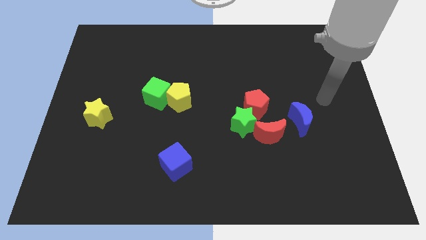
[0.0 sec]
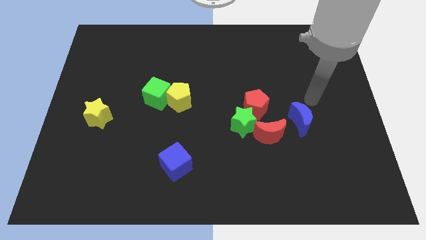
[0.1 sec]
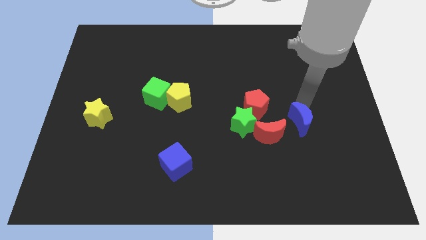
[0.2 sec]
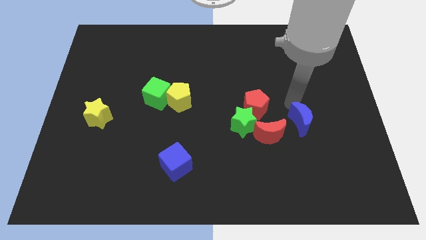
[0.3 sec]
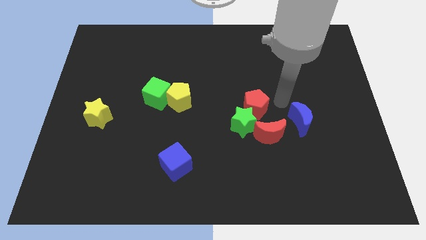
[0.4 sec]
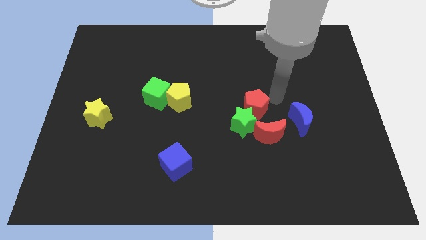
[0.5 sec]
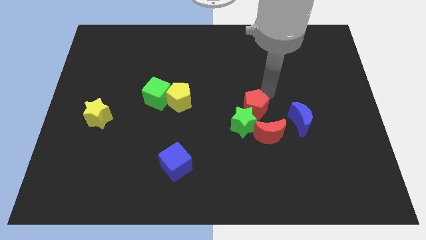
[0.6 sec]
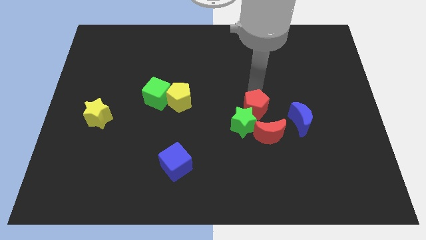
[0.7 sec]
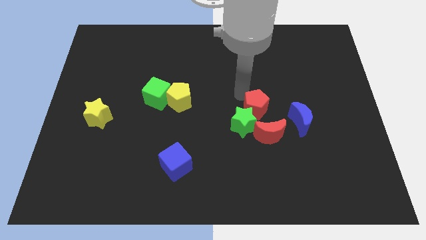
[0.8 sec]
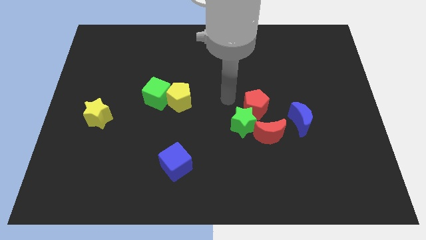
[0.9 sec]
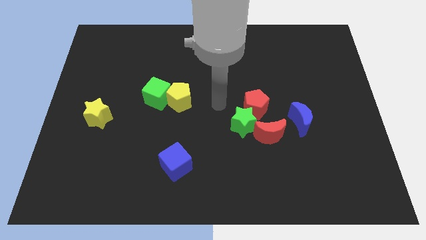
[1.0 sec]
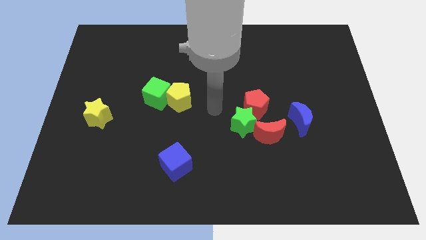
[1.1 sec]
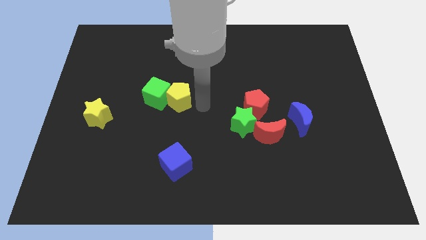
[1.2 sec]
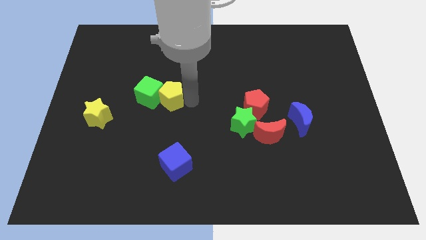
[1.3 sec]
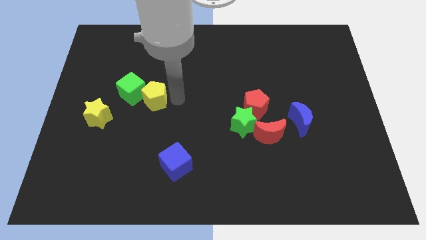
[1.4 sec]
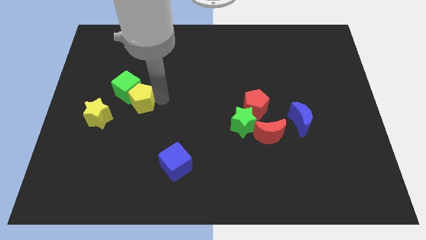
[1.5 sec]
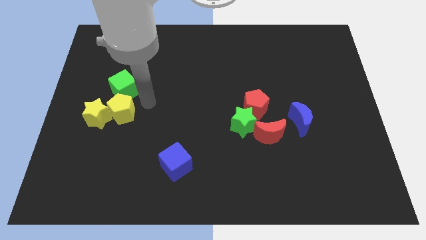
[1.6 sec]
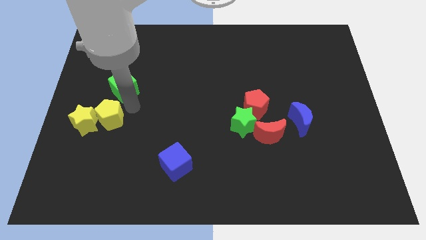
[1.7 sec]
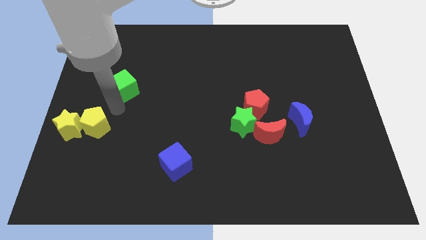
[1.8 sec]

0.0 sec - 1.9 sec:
move the green cube away from the yellow pentagon

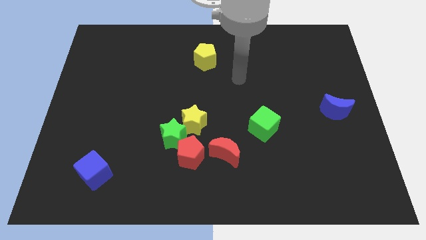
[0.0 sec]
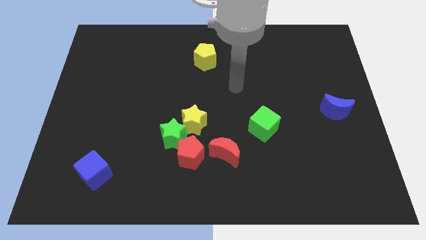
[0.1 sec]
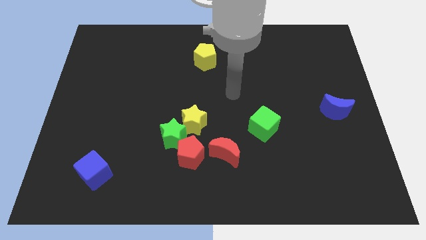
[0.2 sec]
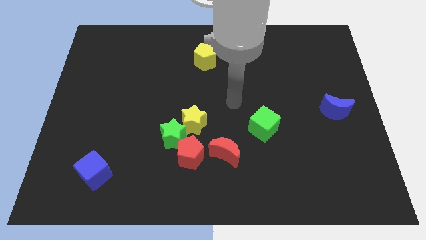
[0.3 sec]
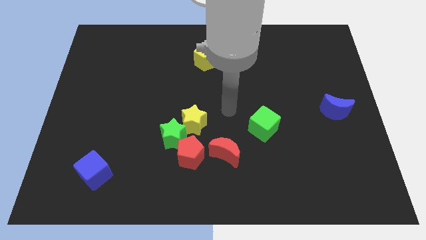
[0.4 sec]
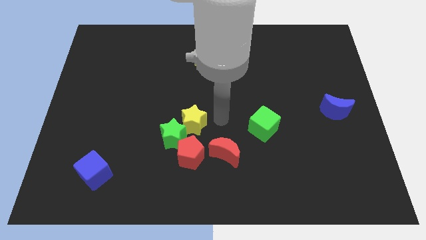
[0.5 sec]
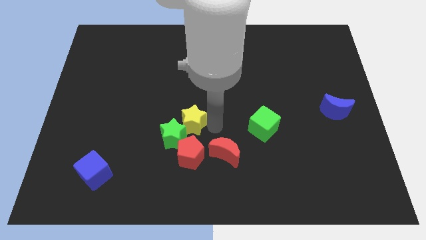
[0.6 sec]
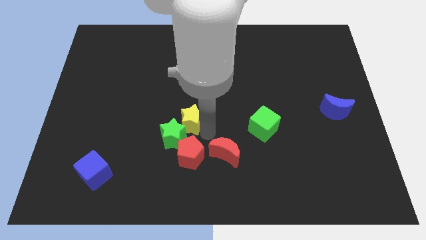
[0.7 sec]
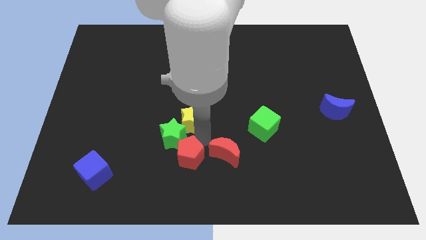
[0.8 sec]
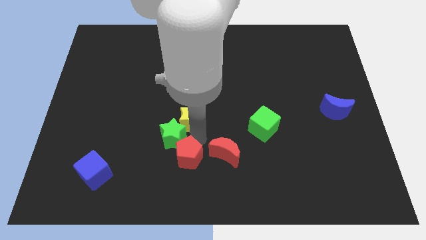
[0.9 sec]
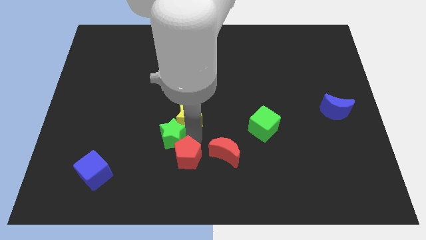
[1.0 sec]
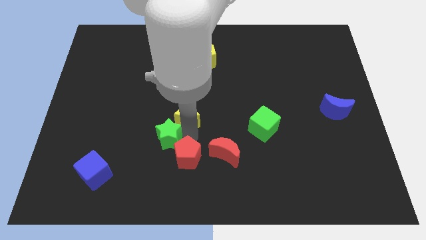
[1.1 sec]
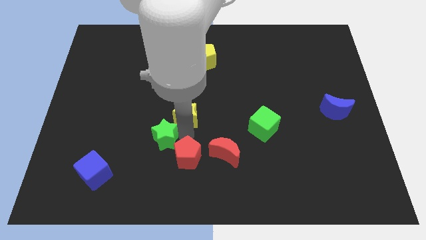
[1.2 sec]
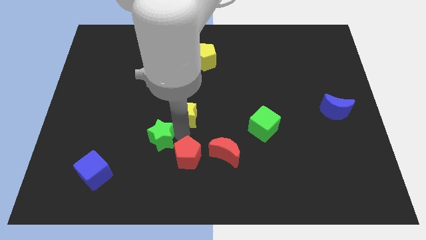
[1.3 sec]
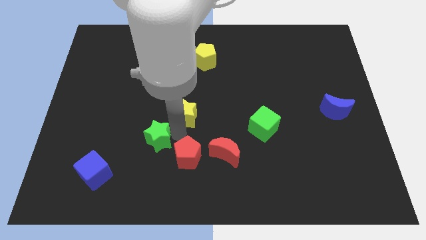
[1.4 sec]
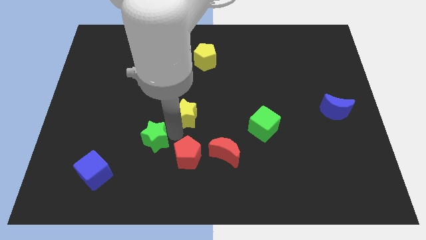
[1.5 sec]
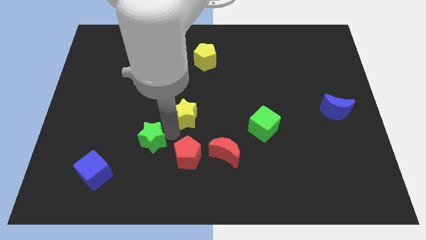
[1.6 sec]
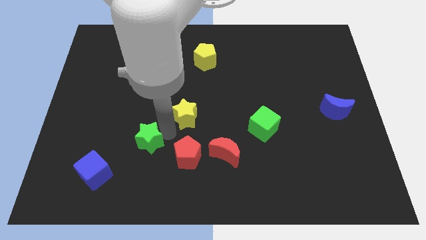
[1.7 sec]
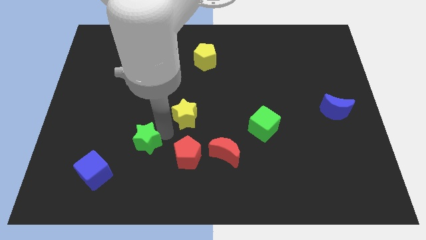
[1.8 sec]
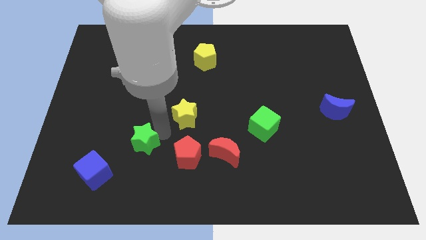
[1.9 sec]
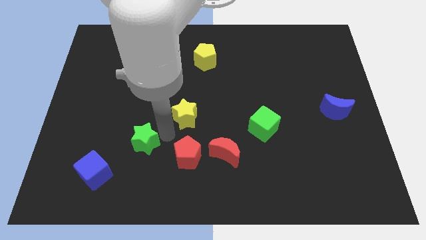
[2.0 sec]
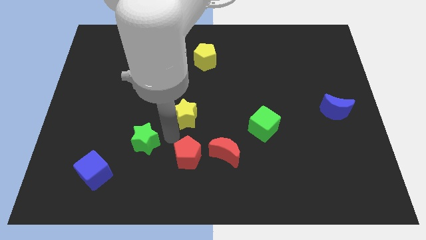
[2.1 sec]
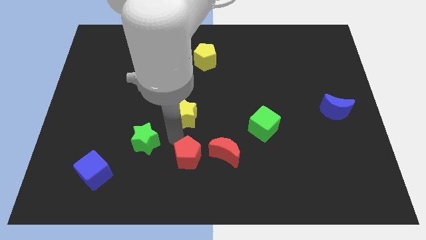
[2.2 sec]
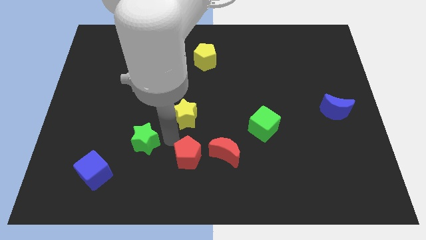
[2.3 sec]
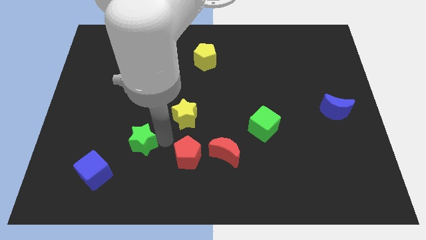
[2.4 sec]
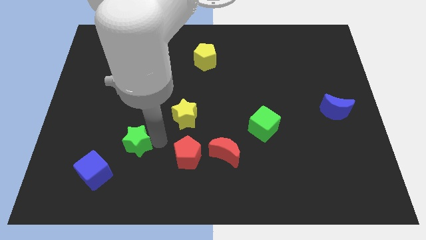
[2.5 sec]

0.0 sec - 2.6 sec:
separate the green star from the yellow star and red pentagon

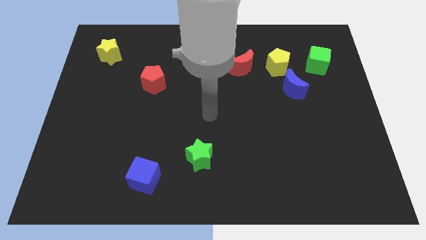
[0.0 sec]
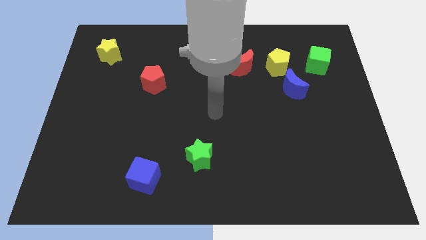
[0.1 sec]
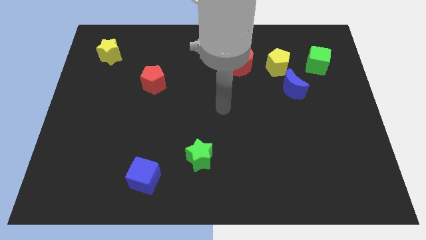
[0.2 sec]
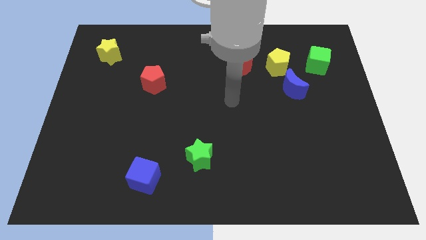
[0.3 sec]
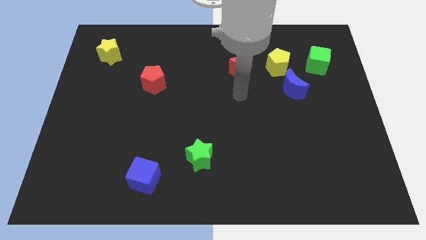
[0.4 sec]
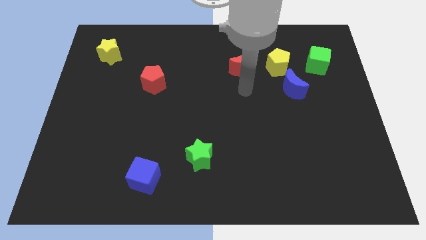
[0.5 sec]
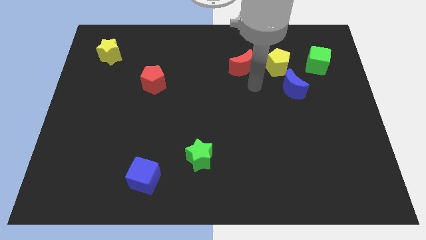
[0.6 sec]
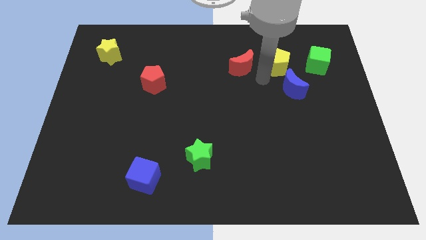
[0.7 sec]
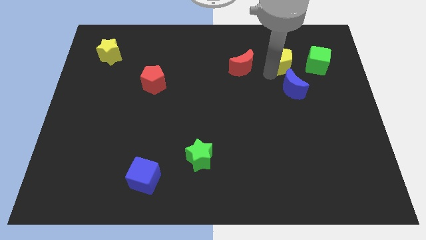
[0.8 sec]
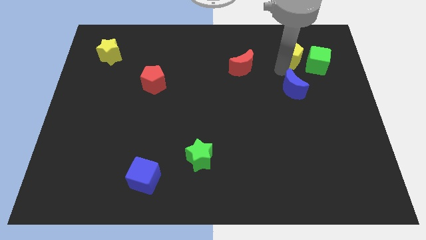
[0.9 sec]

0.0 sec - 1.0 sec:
move the blue moon away from the yellow pentagon

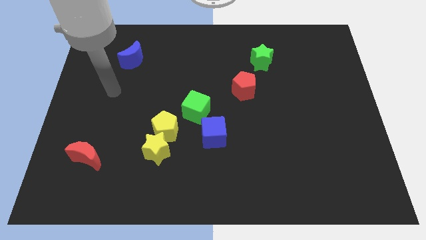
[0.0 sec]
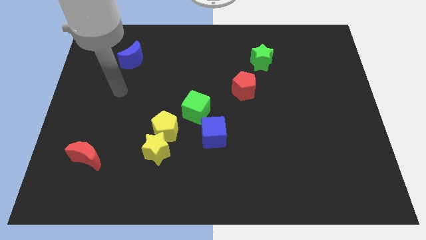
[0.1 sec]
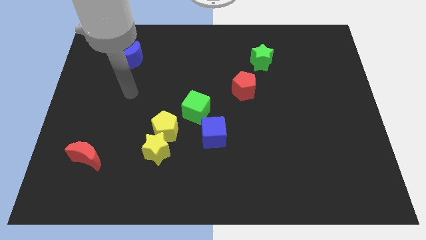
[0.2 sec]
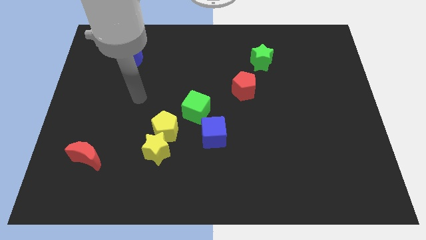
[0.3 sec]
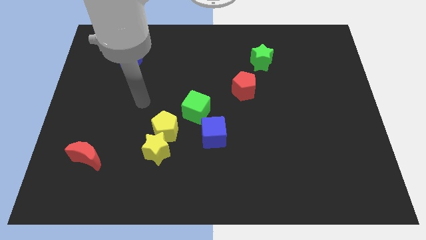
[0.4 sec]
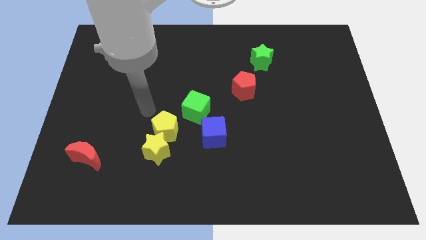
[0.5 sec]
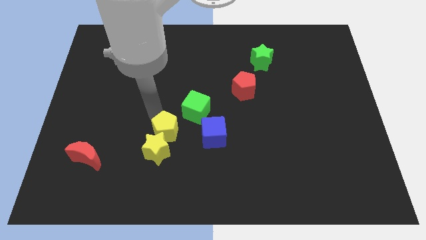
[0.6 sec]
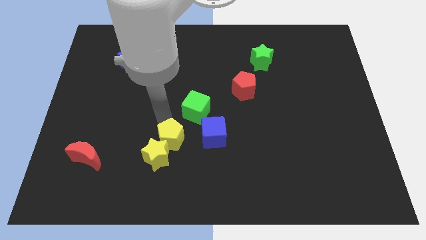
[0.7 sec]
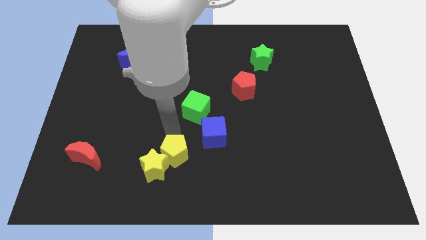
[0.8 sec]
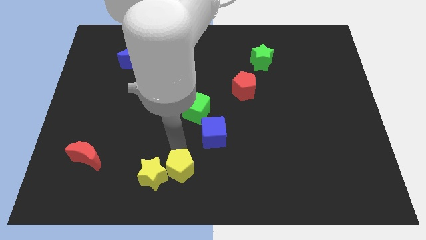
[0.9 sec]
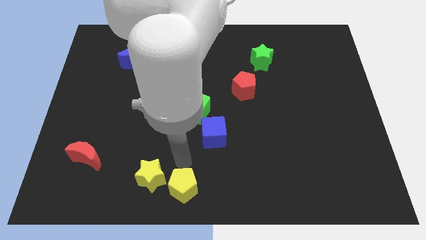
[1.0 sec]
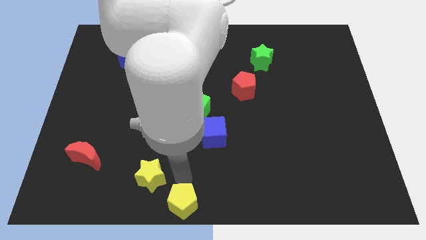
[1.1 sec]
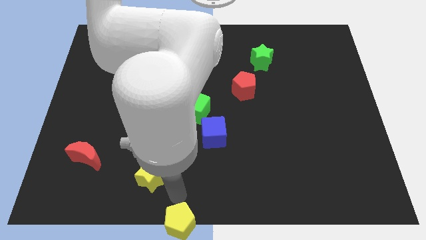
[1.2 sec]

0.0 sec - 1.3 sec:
separate the yellow star from the yellow pentagon

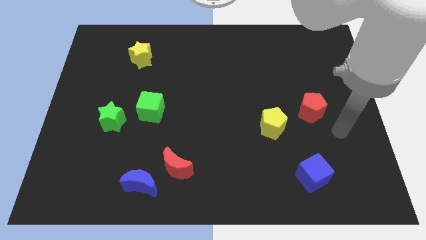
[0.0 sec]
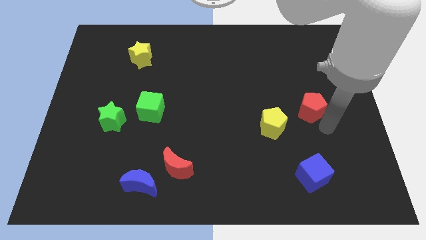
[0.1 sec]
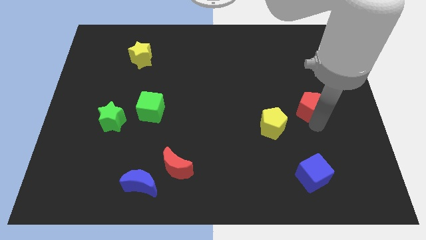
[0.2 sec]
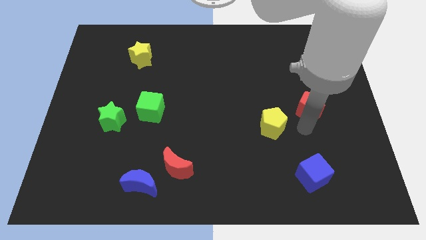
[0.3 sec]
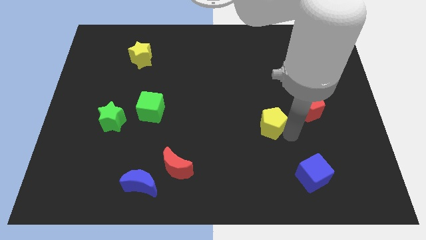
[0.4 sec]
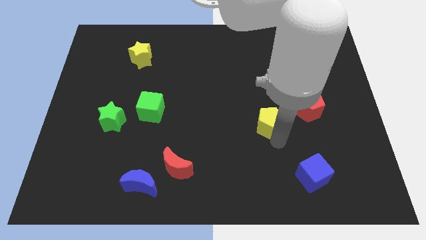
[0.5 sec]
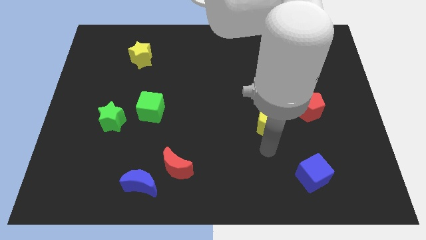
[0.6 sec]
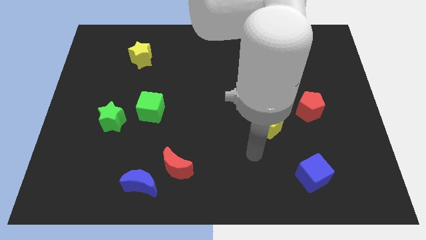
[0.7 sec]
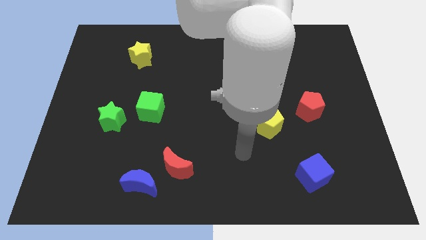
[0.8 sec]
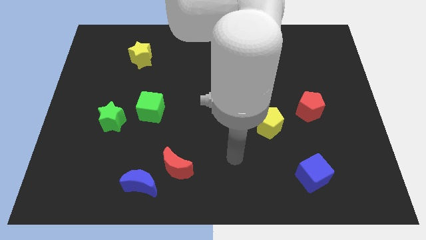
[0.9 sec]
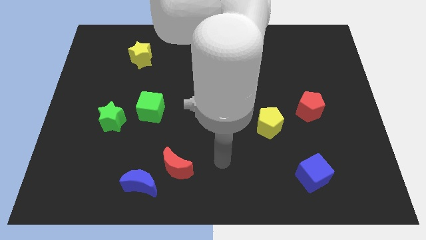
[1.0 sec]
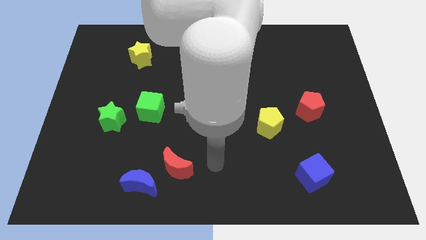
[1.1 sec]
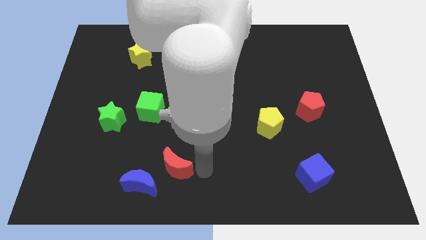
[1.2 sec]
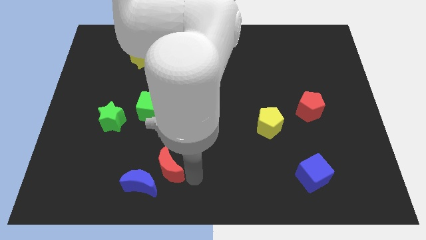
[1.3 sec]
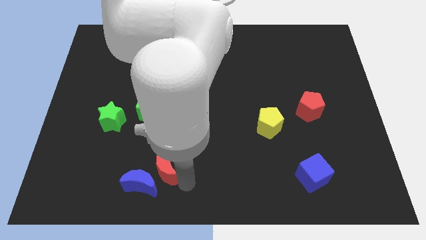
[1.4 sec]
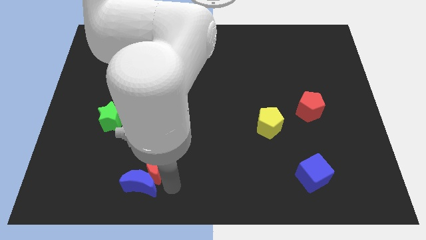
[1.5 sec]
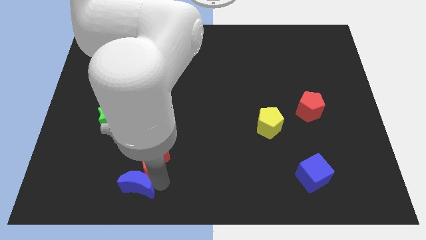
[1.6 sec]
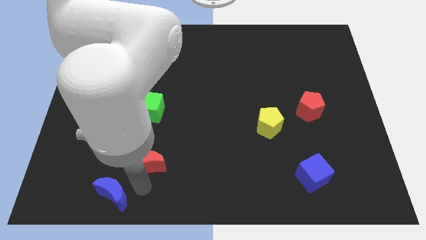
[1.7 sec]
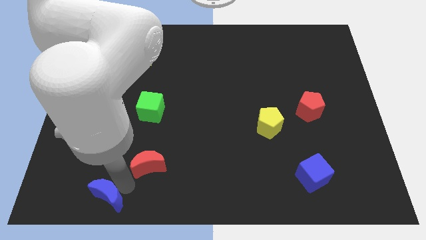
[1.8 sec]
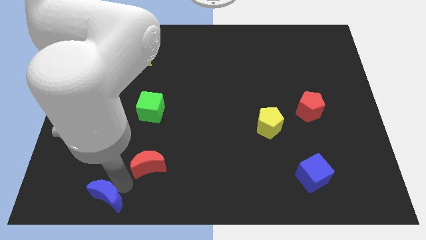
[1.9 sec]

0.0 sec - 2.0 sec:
separate the red moon from the blue moon

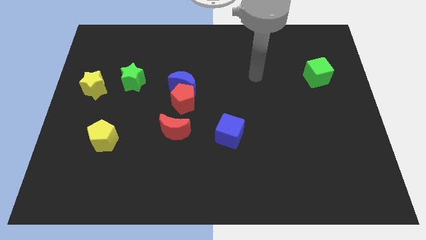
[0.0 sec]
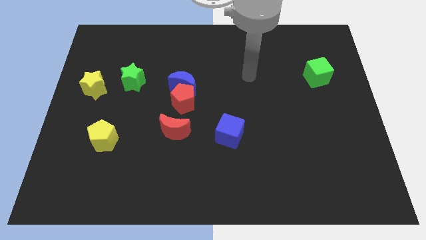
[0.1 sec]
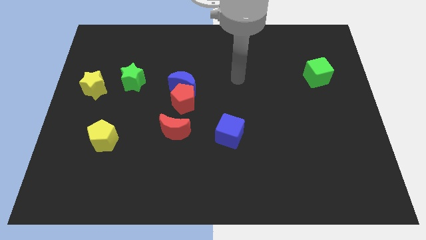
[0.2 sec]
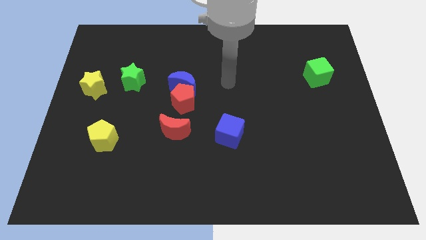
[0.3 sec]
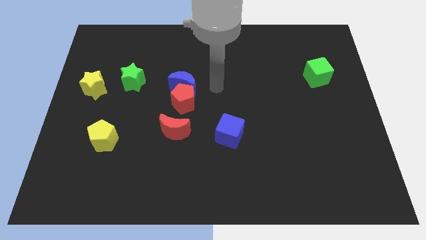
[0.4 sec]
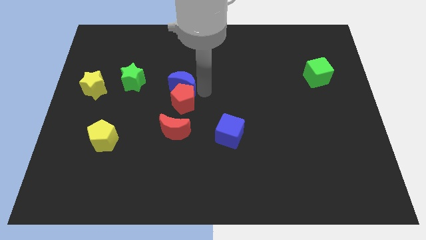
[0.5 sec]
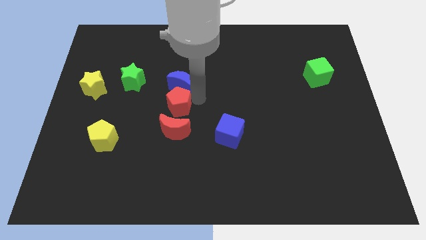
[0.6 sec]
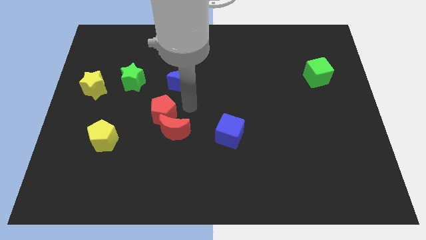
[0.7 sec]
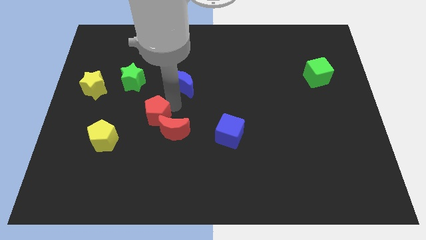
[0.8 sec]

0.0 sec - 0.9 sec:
pull the blue moon apart from the red pentagon
